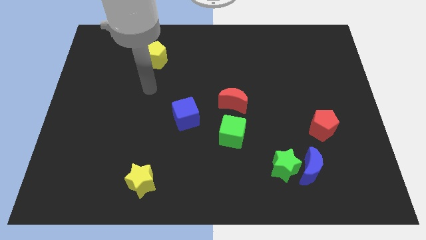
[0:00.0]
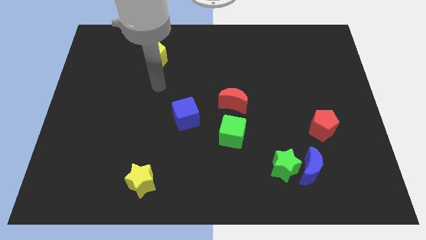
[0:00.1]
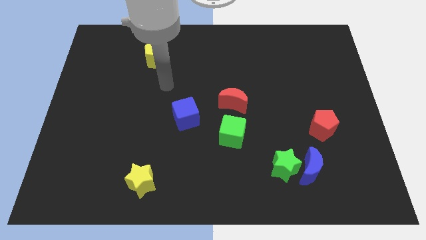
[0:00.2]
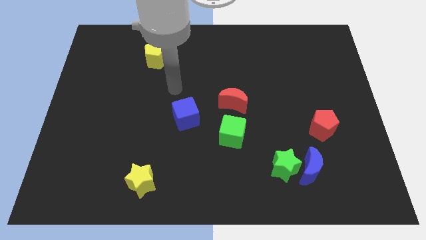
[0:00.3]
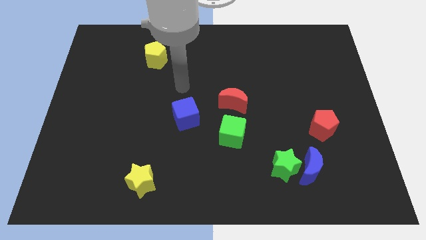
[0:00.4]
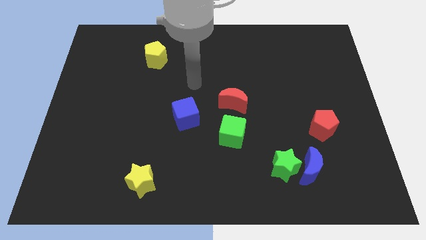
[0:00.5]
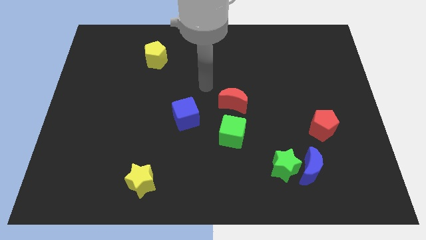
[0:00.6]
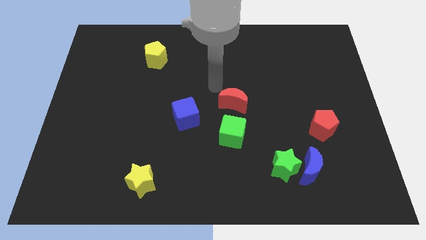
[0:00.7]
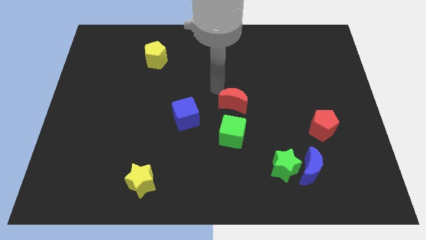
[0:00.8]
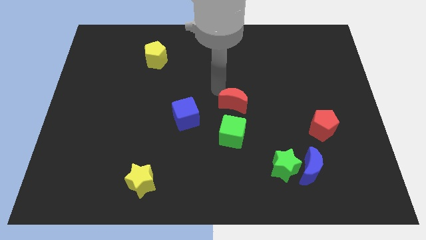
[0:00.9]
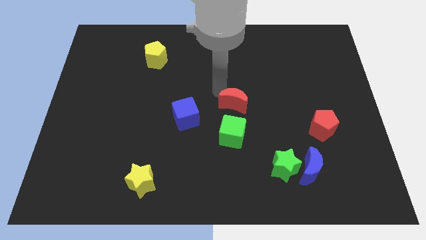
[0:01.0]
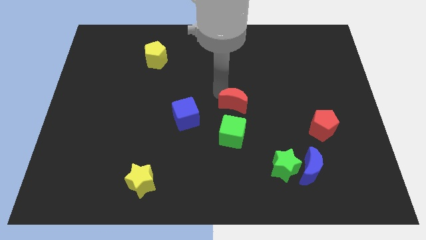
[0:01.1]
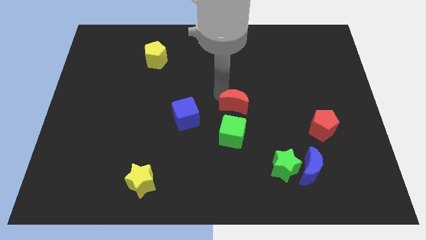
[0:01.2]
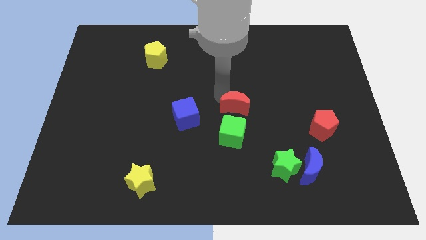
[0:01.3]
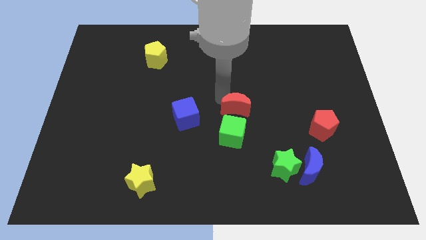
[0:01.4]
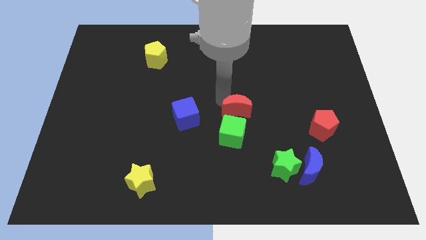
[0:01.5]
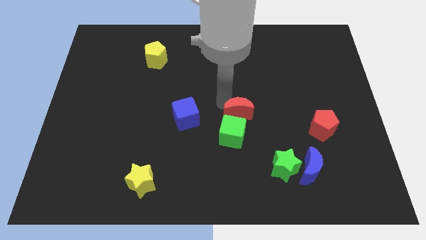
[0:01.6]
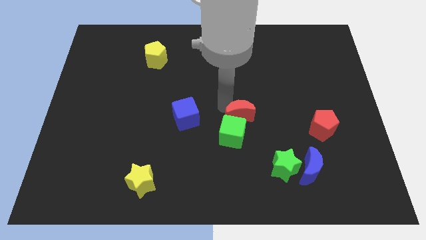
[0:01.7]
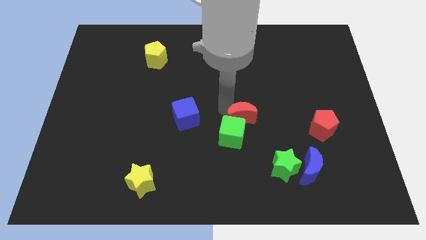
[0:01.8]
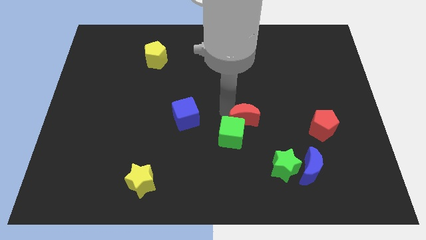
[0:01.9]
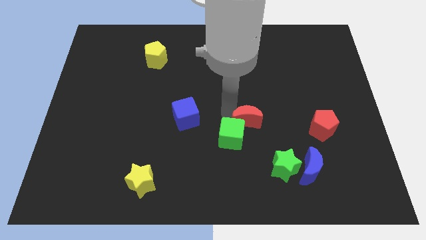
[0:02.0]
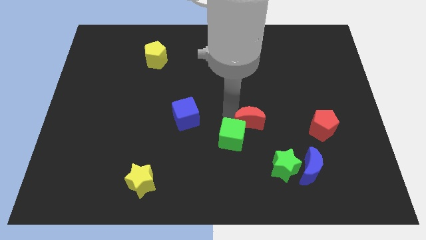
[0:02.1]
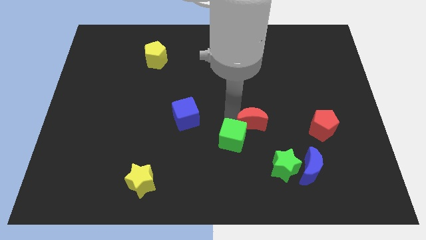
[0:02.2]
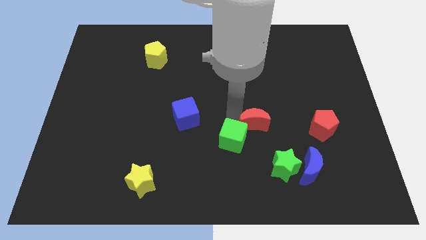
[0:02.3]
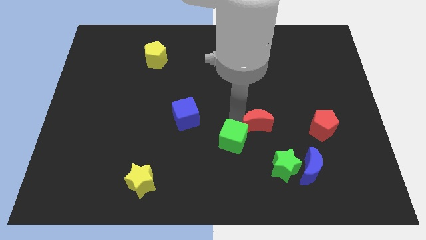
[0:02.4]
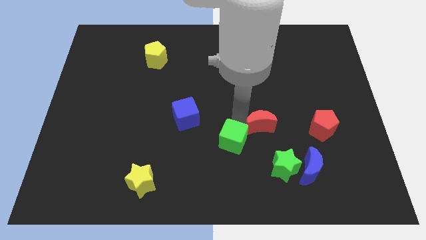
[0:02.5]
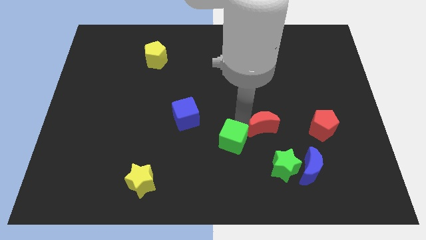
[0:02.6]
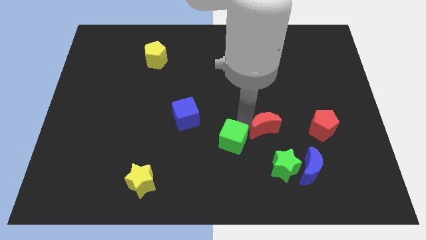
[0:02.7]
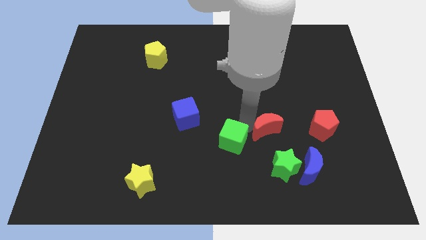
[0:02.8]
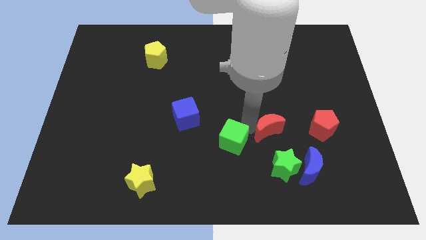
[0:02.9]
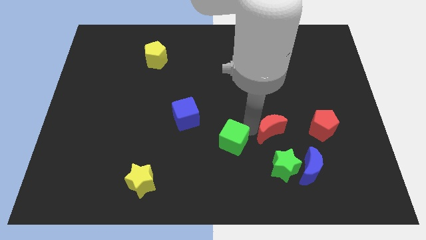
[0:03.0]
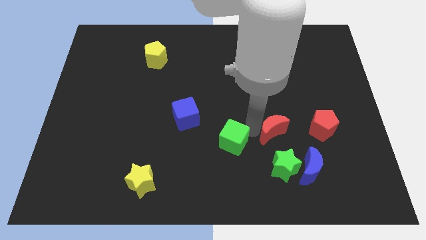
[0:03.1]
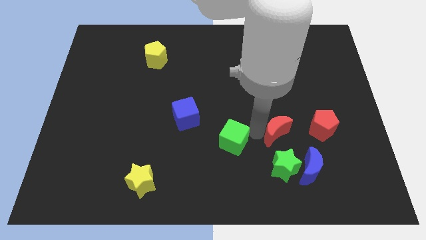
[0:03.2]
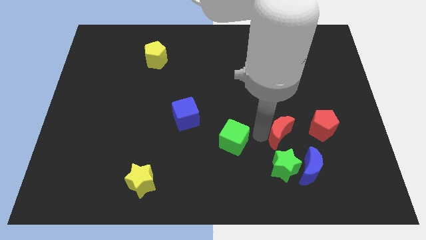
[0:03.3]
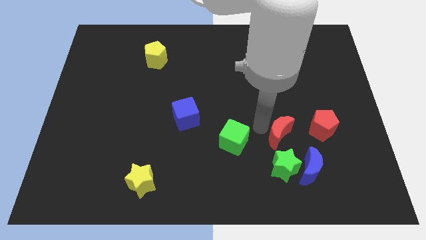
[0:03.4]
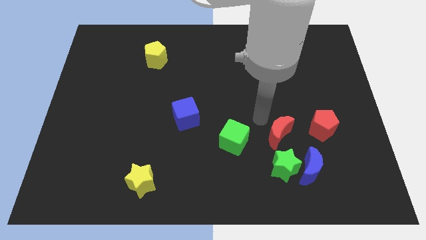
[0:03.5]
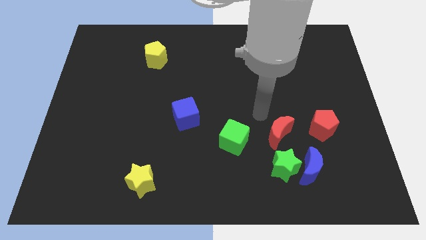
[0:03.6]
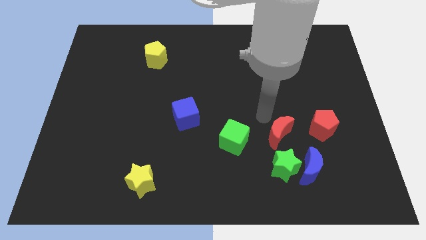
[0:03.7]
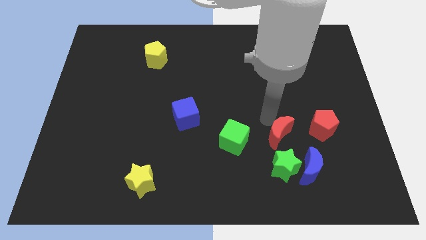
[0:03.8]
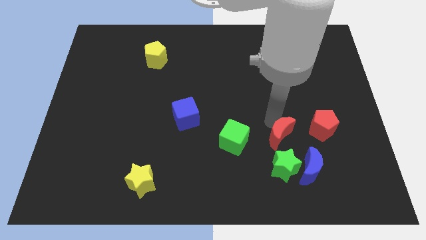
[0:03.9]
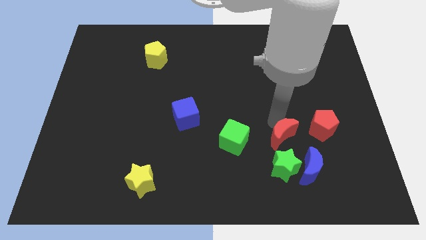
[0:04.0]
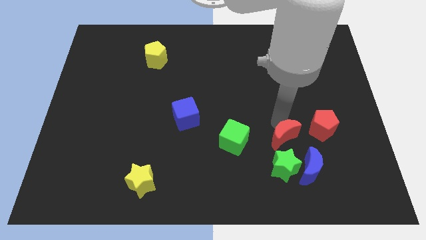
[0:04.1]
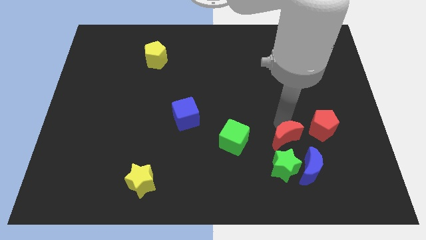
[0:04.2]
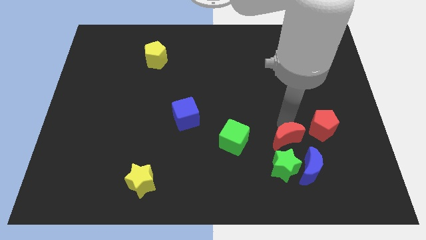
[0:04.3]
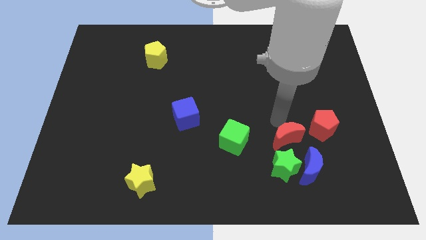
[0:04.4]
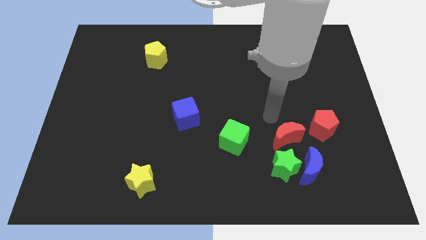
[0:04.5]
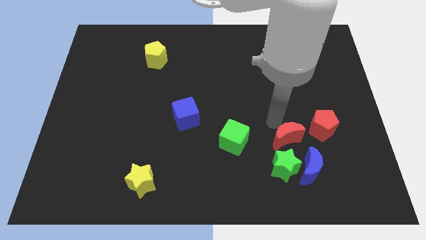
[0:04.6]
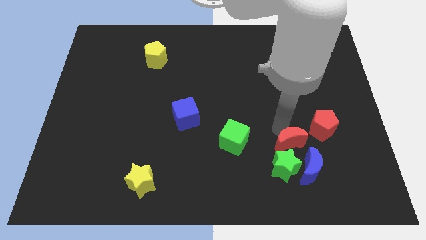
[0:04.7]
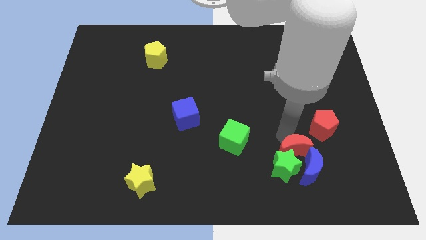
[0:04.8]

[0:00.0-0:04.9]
put the red moon next to the blue moon

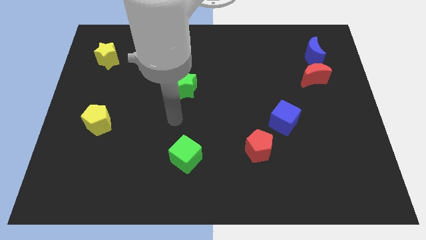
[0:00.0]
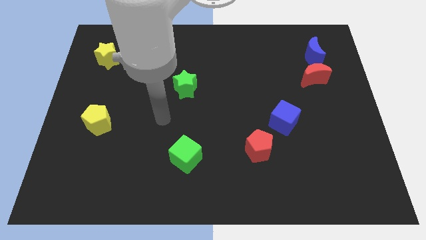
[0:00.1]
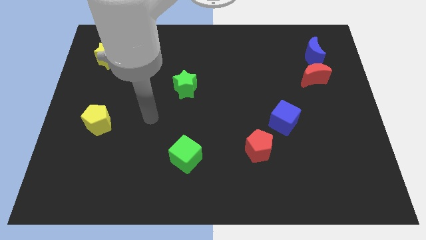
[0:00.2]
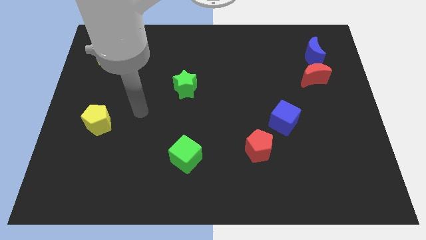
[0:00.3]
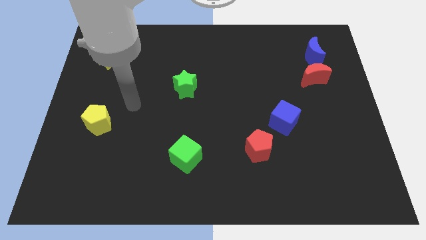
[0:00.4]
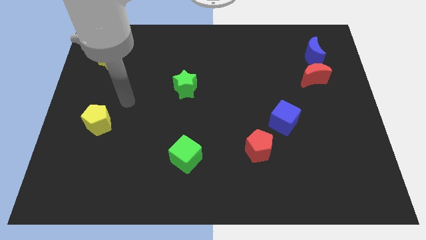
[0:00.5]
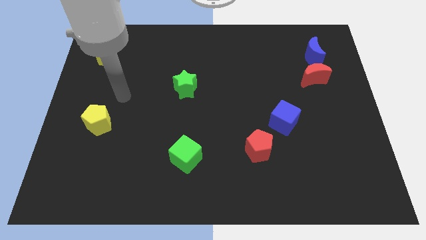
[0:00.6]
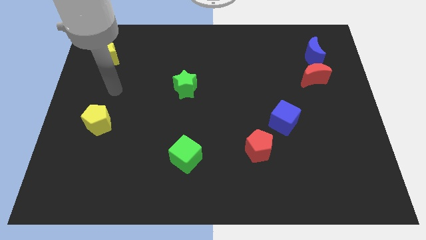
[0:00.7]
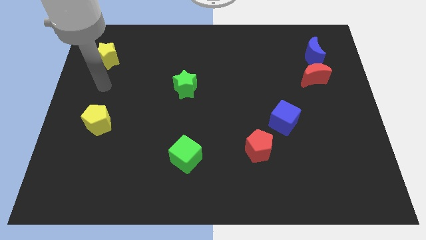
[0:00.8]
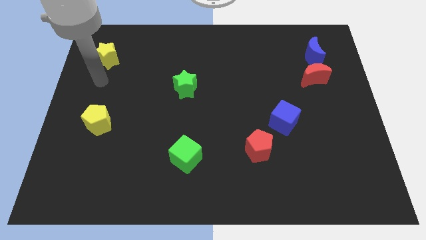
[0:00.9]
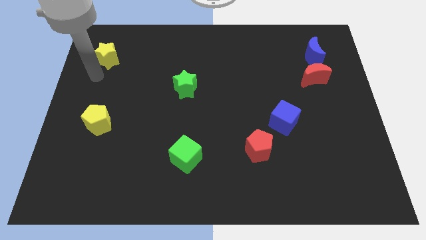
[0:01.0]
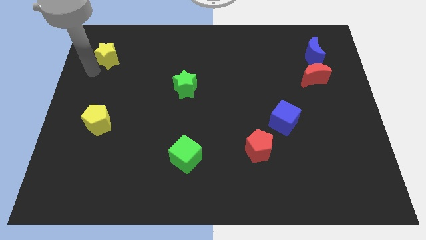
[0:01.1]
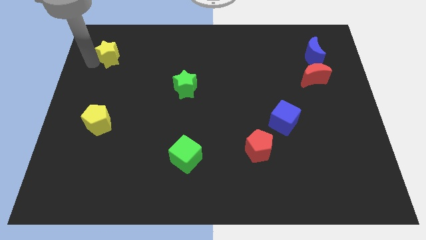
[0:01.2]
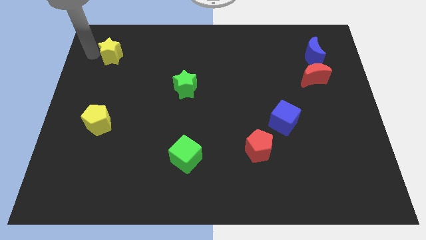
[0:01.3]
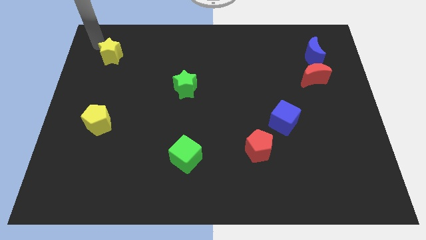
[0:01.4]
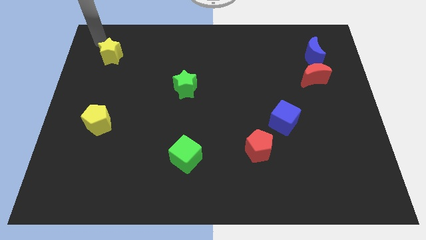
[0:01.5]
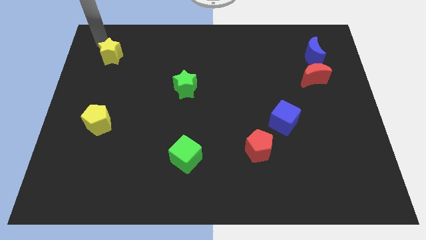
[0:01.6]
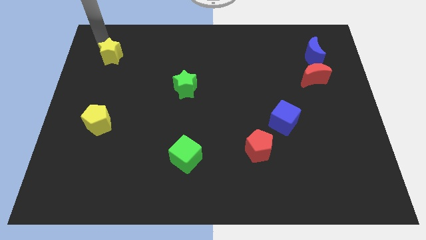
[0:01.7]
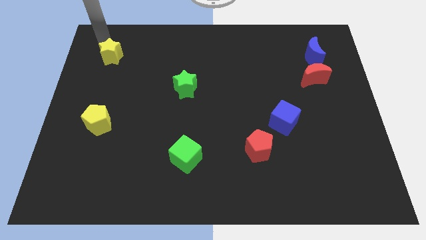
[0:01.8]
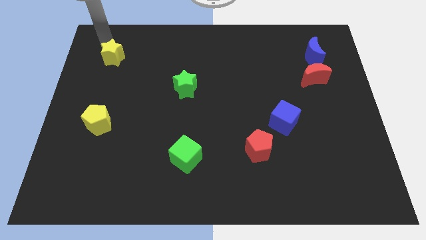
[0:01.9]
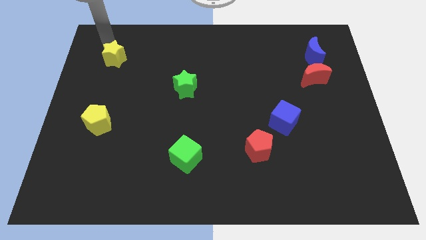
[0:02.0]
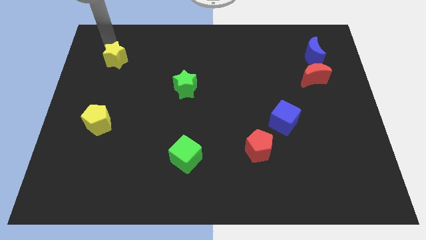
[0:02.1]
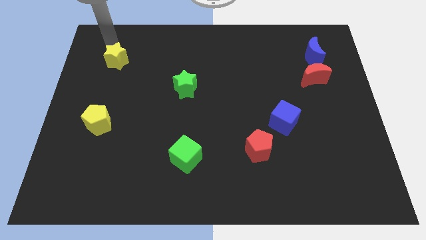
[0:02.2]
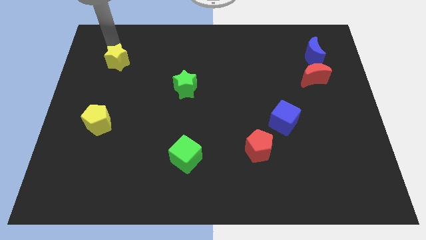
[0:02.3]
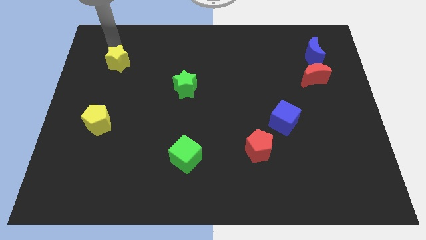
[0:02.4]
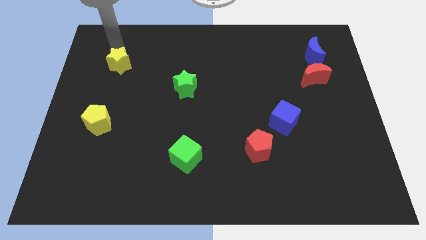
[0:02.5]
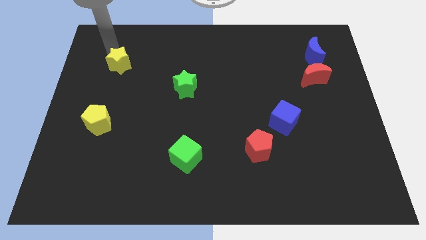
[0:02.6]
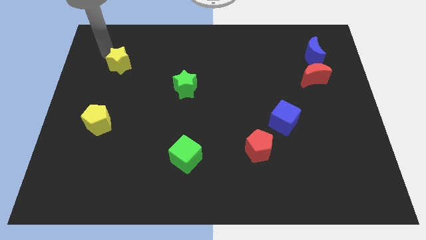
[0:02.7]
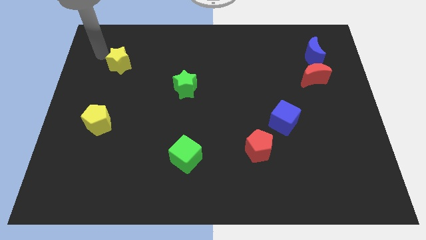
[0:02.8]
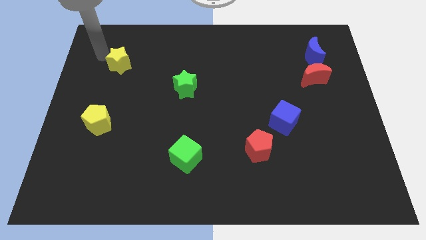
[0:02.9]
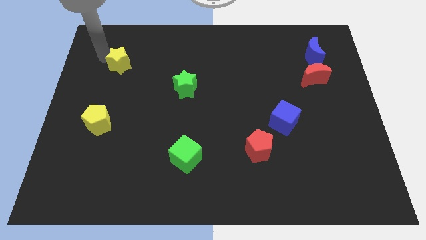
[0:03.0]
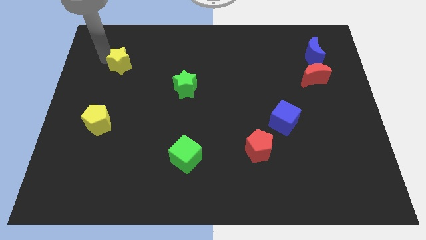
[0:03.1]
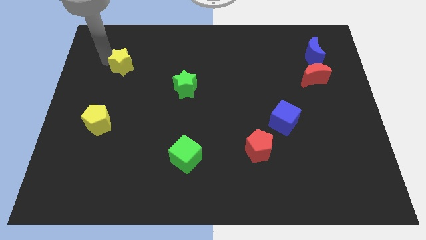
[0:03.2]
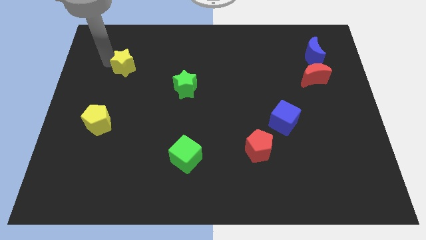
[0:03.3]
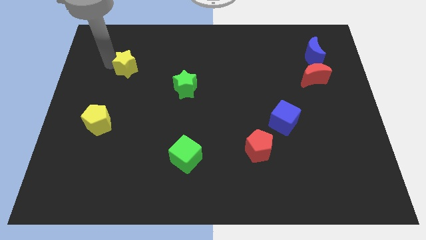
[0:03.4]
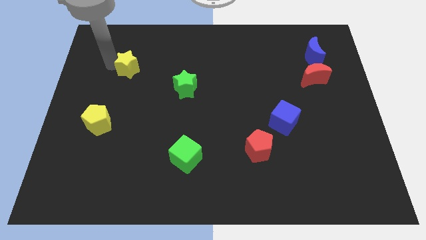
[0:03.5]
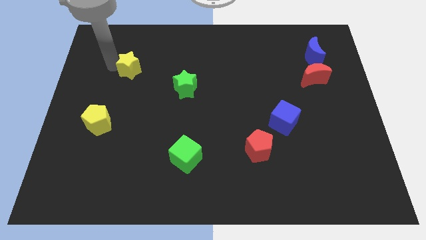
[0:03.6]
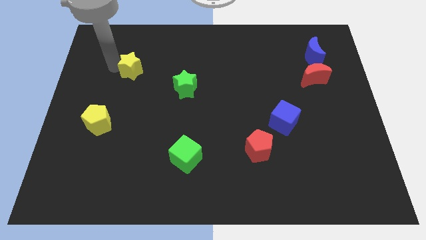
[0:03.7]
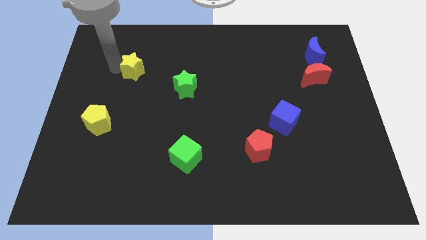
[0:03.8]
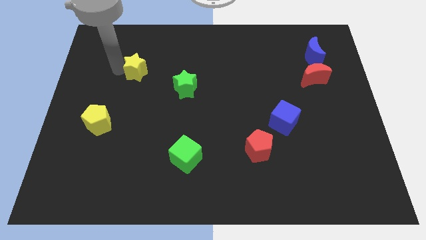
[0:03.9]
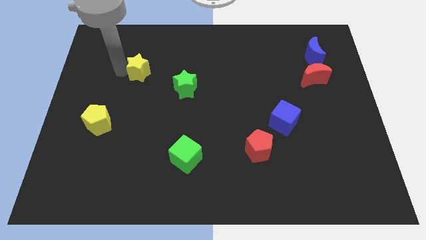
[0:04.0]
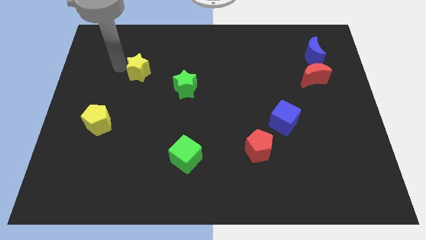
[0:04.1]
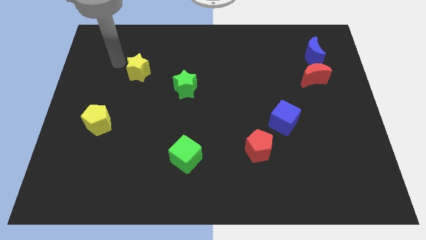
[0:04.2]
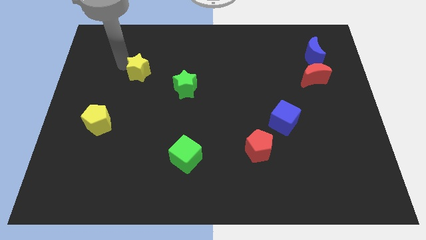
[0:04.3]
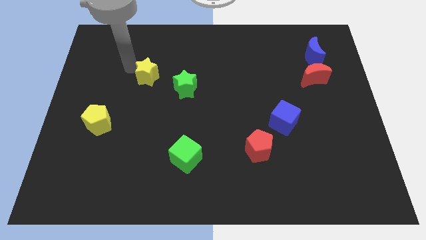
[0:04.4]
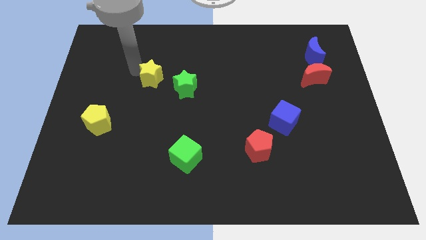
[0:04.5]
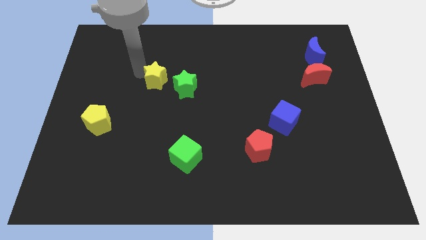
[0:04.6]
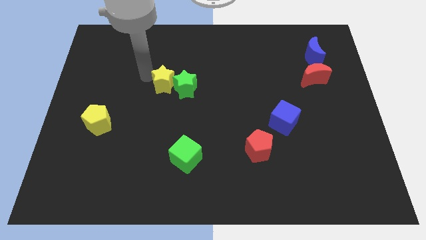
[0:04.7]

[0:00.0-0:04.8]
push the yellow star next to the green star
